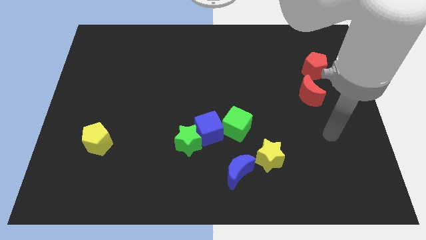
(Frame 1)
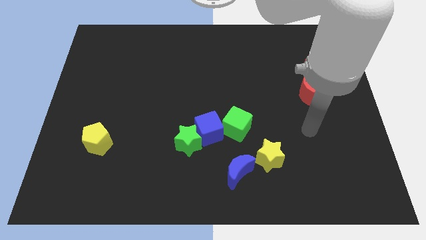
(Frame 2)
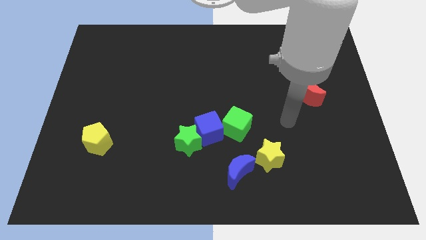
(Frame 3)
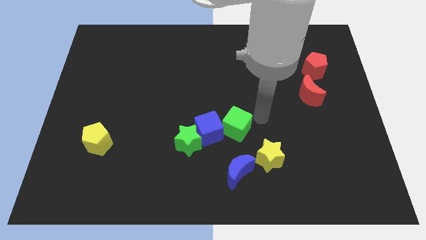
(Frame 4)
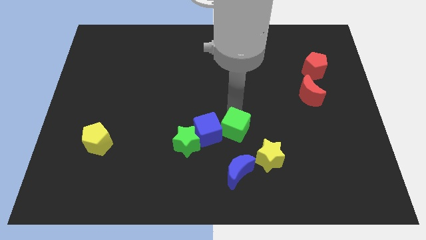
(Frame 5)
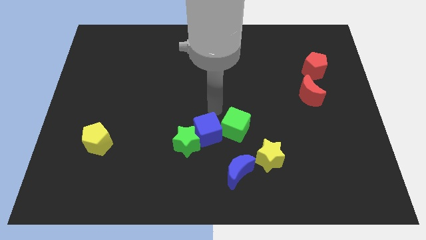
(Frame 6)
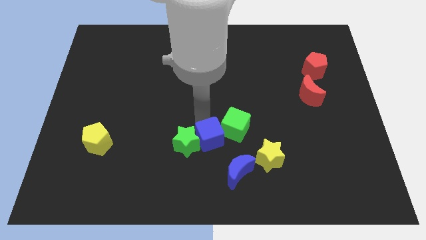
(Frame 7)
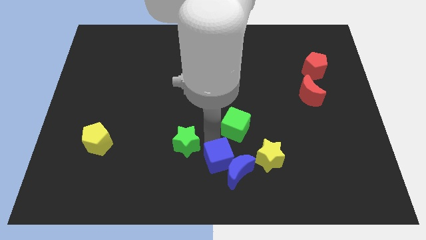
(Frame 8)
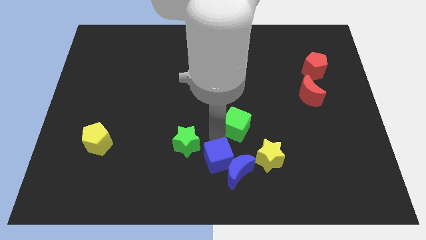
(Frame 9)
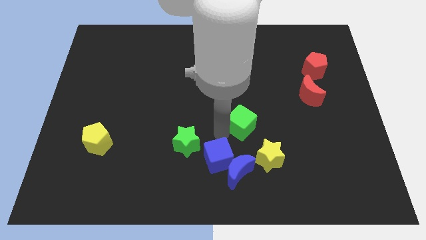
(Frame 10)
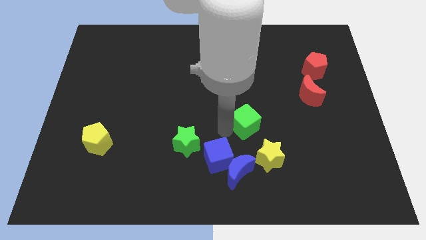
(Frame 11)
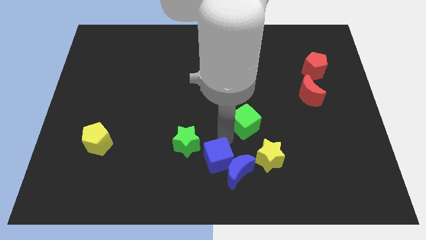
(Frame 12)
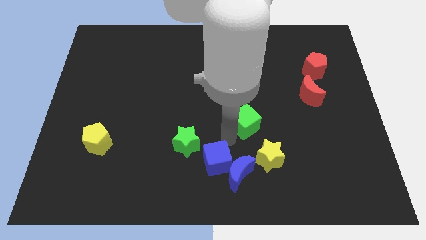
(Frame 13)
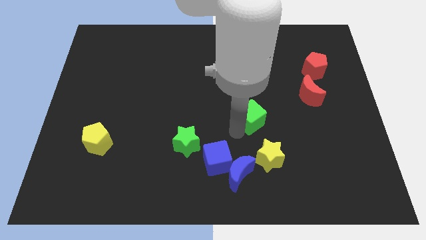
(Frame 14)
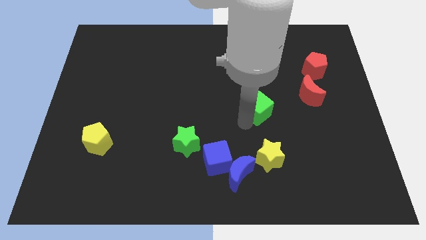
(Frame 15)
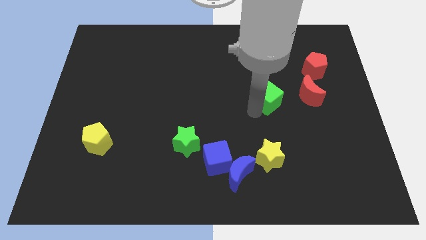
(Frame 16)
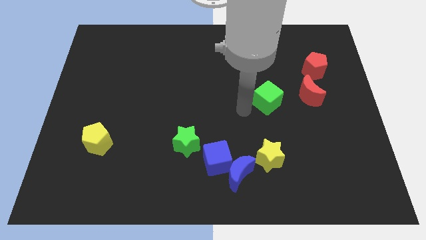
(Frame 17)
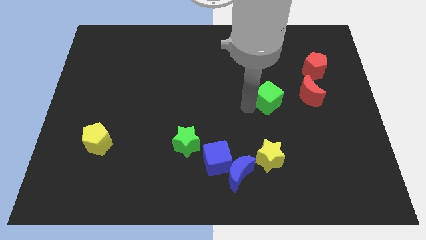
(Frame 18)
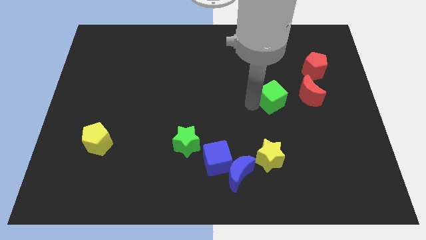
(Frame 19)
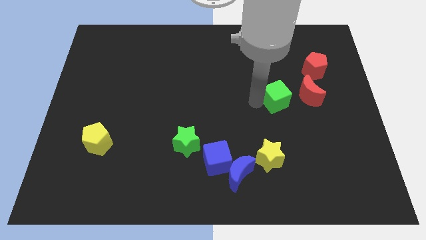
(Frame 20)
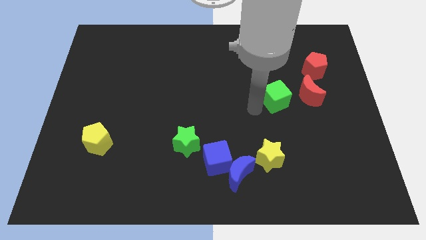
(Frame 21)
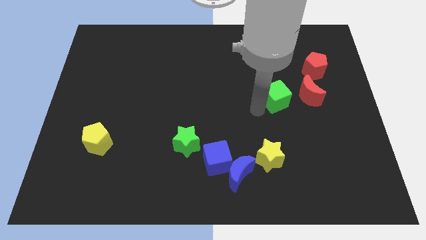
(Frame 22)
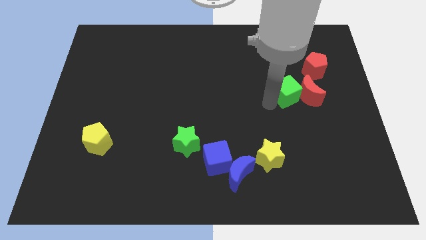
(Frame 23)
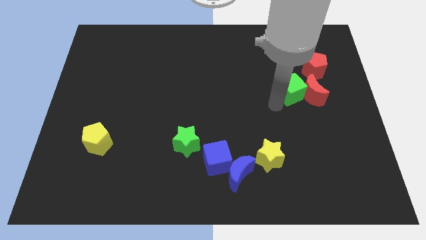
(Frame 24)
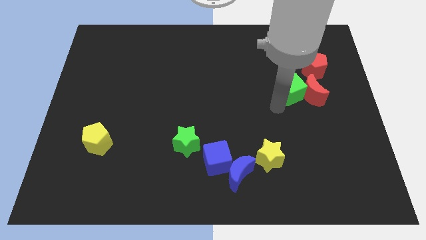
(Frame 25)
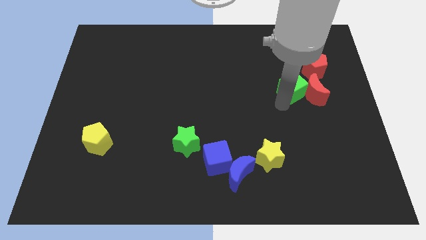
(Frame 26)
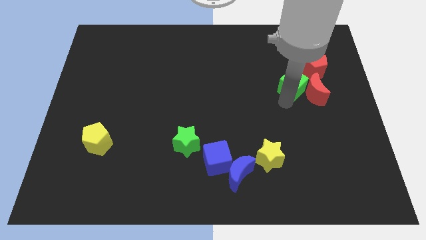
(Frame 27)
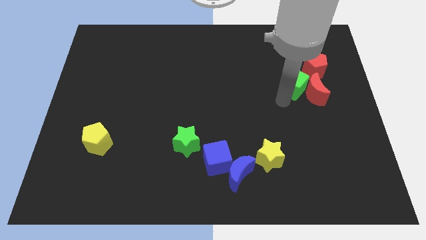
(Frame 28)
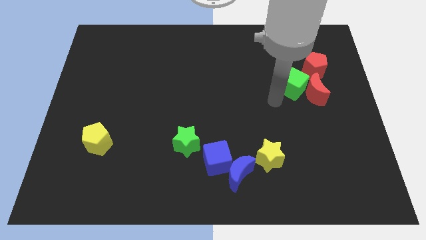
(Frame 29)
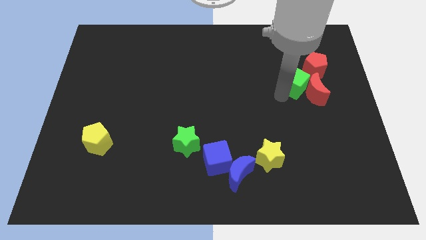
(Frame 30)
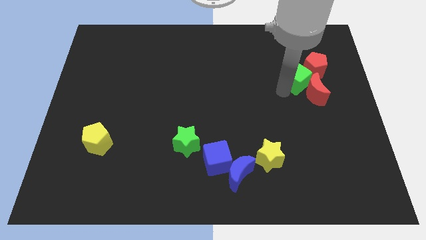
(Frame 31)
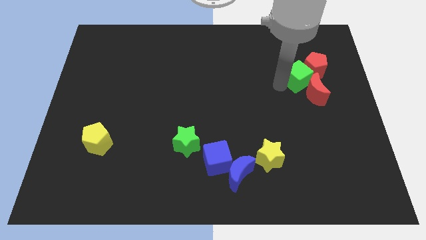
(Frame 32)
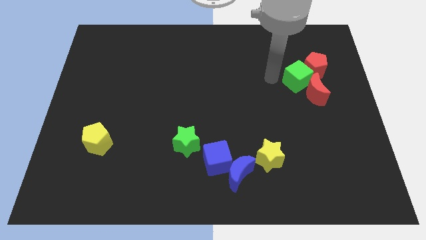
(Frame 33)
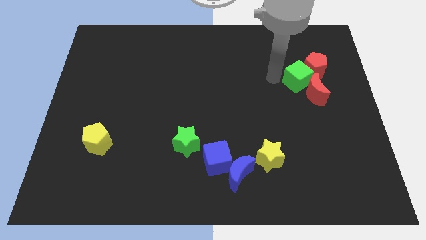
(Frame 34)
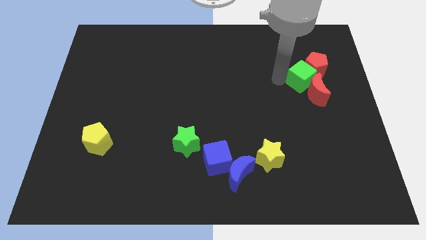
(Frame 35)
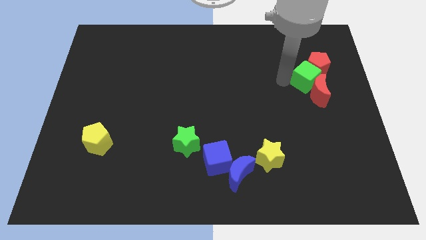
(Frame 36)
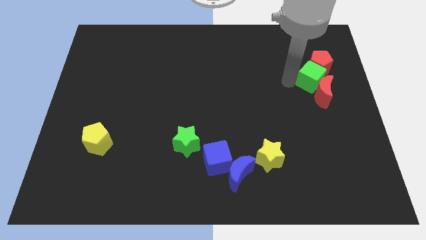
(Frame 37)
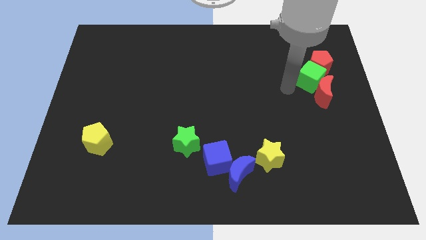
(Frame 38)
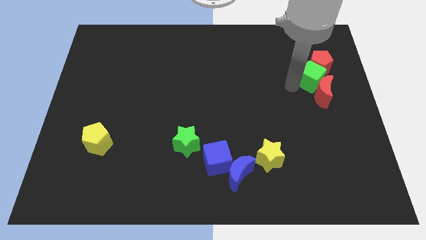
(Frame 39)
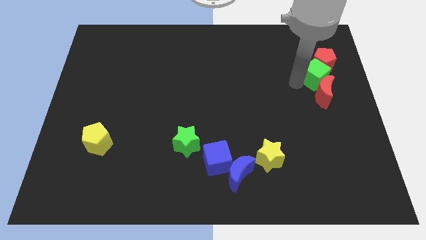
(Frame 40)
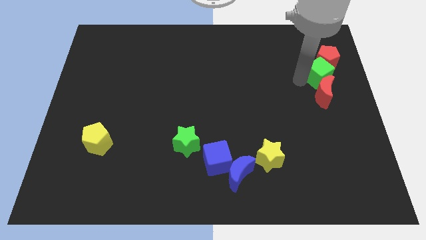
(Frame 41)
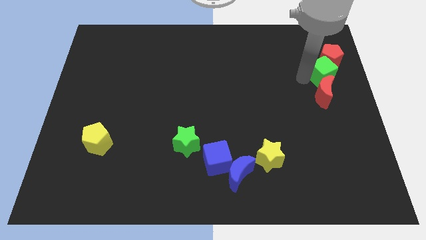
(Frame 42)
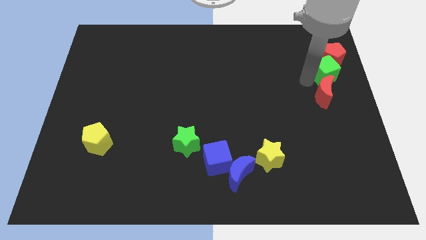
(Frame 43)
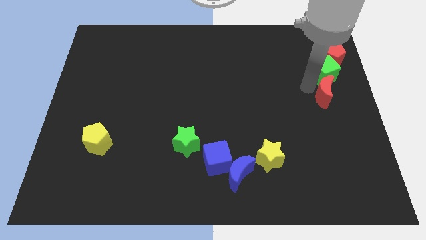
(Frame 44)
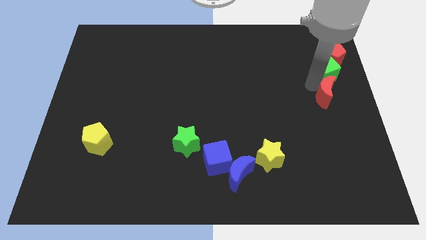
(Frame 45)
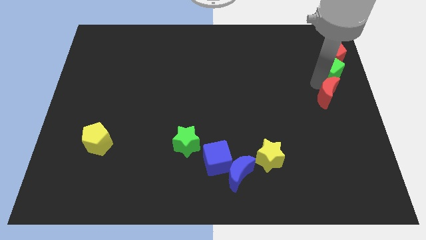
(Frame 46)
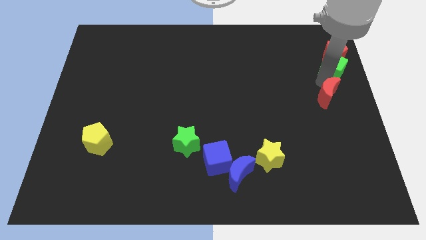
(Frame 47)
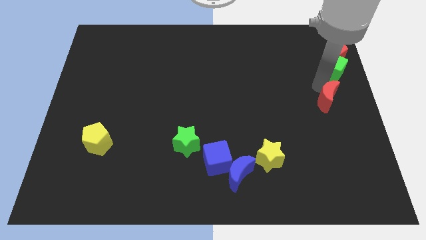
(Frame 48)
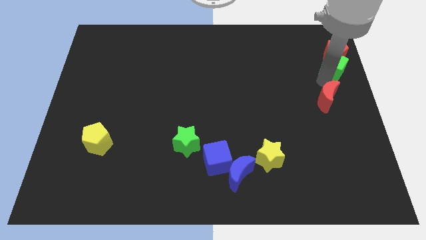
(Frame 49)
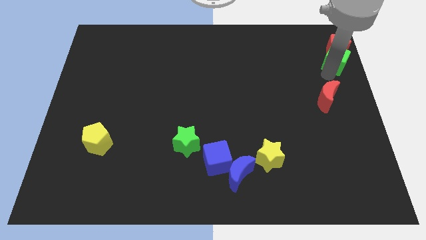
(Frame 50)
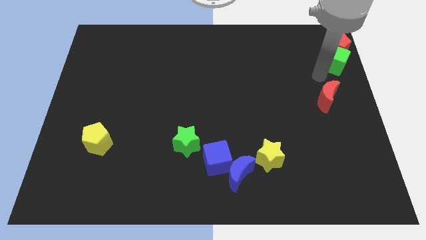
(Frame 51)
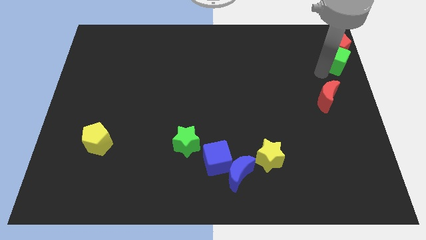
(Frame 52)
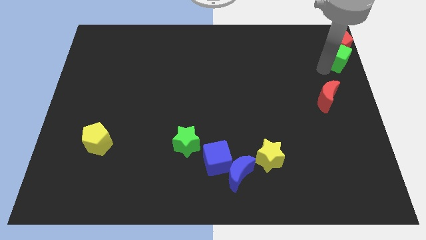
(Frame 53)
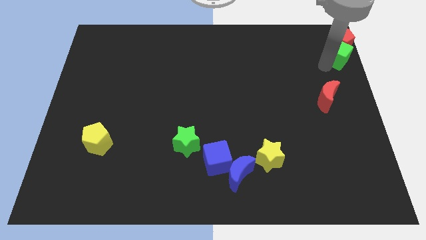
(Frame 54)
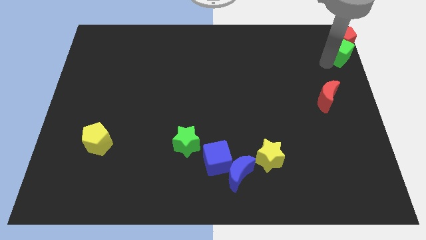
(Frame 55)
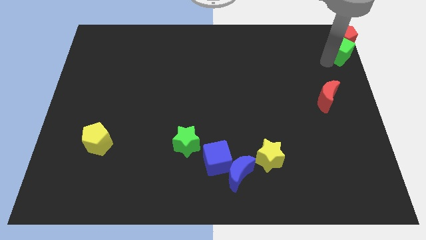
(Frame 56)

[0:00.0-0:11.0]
put the green cube to the top right corner

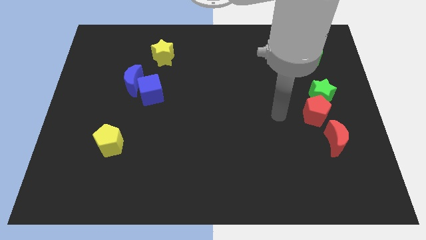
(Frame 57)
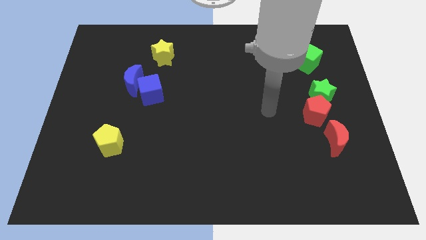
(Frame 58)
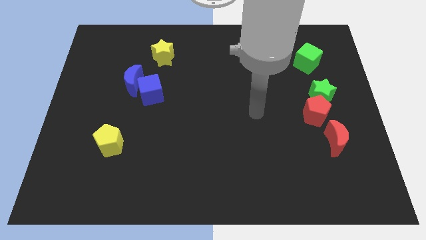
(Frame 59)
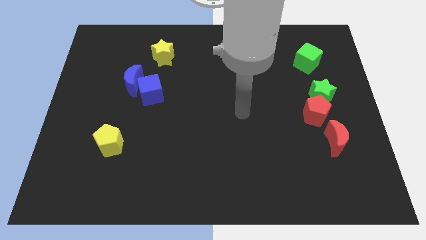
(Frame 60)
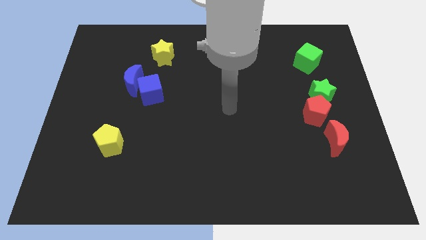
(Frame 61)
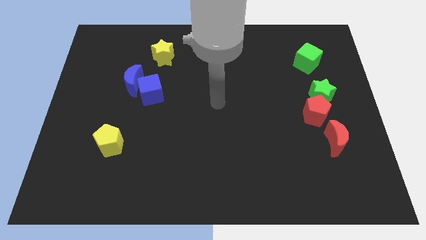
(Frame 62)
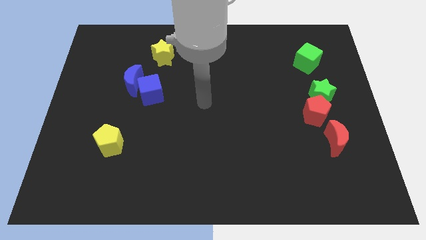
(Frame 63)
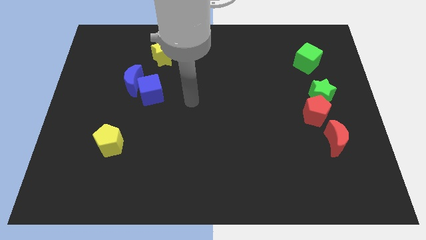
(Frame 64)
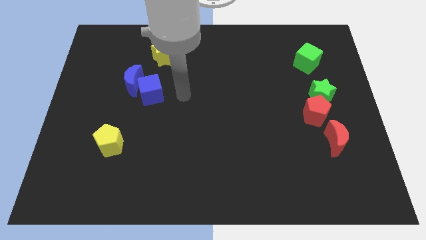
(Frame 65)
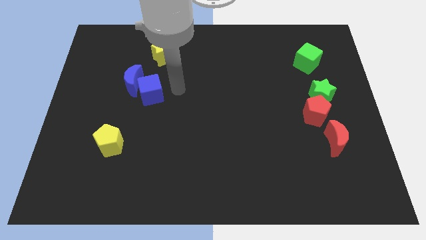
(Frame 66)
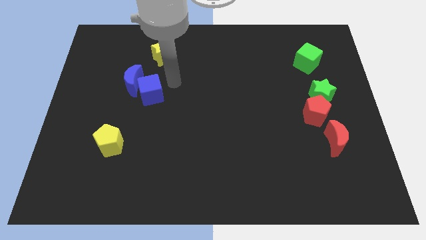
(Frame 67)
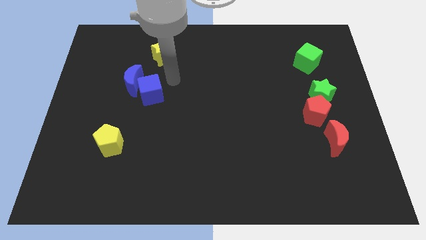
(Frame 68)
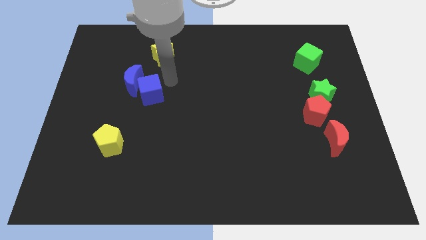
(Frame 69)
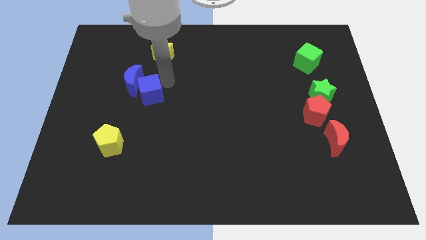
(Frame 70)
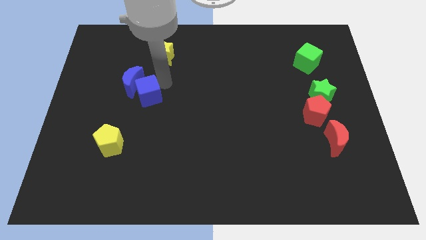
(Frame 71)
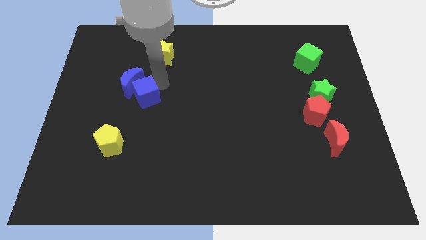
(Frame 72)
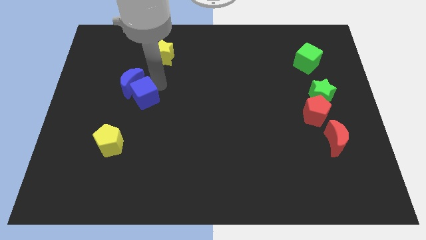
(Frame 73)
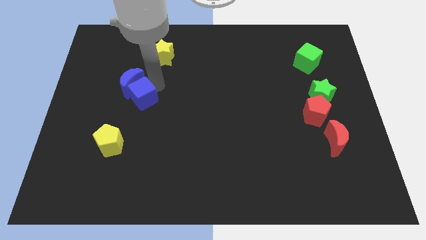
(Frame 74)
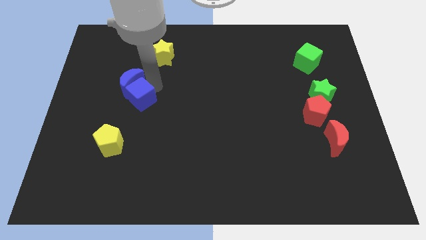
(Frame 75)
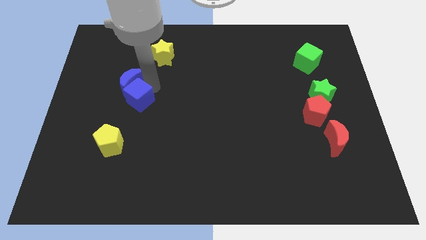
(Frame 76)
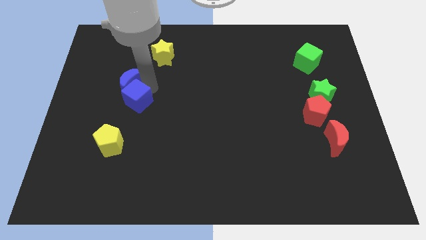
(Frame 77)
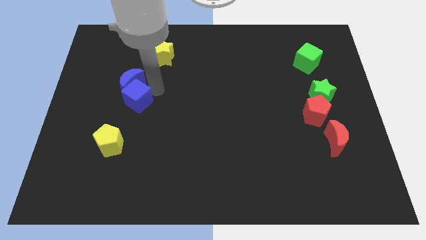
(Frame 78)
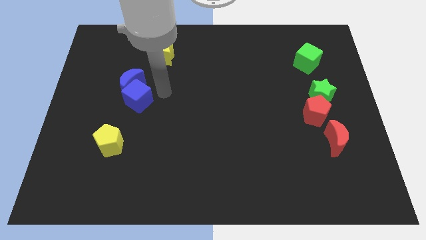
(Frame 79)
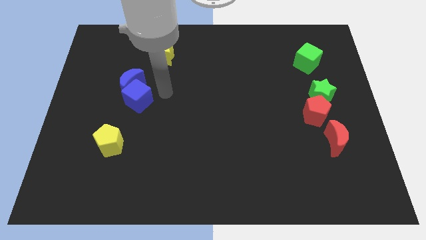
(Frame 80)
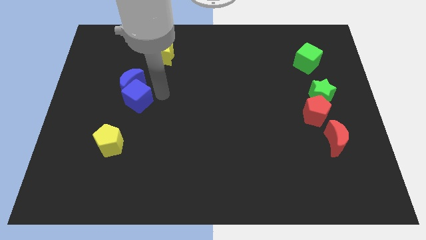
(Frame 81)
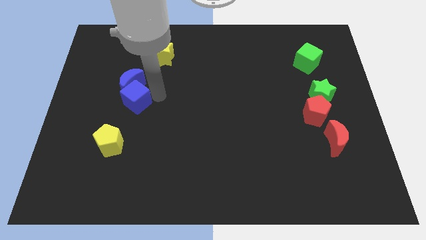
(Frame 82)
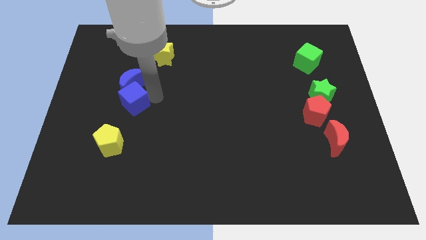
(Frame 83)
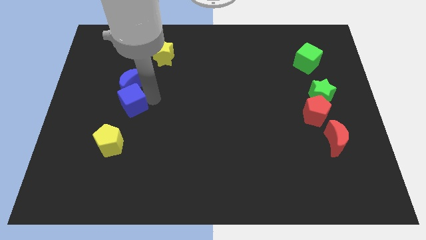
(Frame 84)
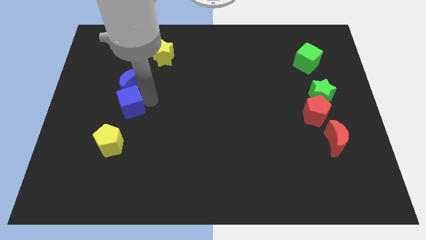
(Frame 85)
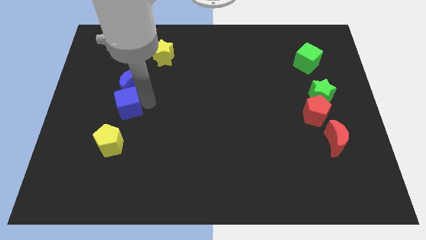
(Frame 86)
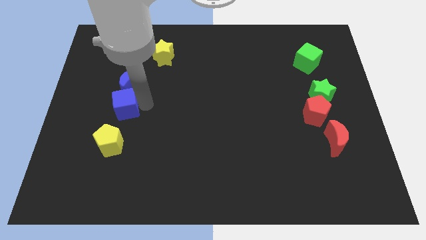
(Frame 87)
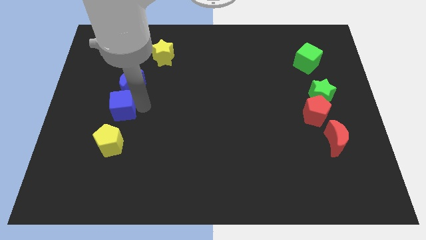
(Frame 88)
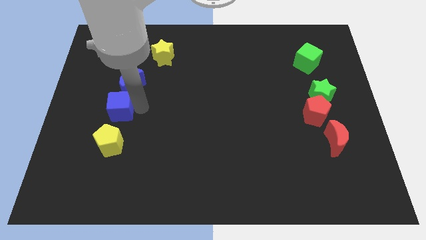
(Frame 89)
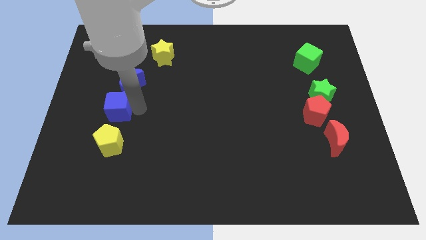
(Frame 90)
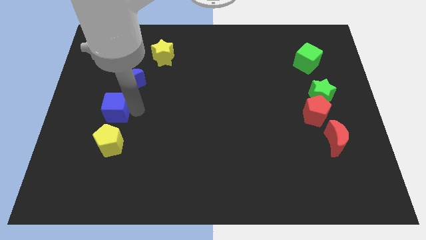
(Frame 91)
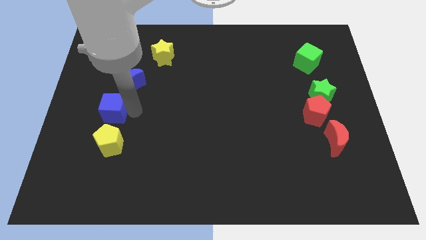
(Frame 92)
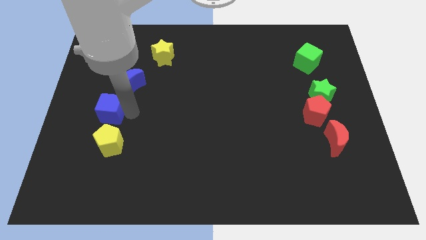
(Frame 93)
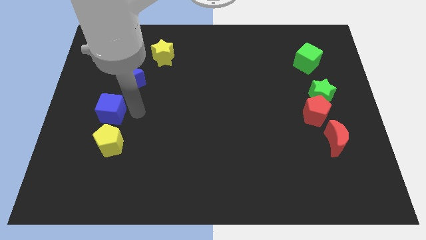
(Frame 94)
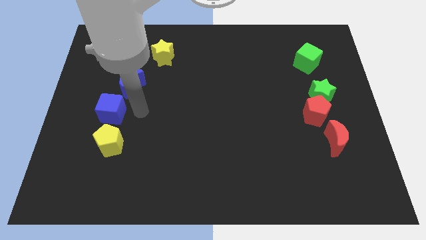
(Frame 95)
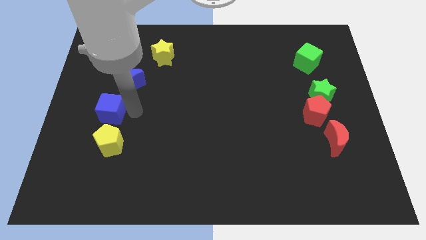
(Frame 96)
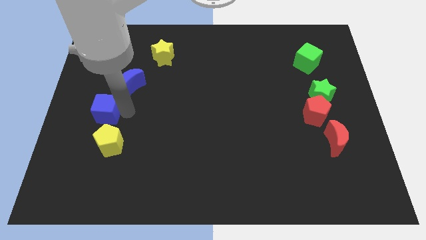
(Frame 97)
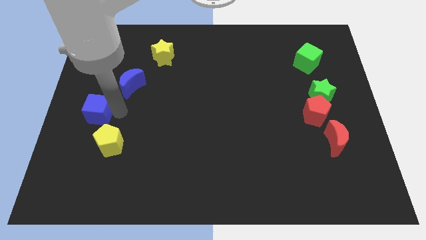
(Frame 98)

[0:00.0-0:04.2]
slide the blue cube to the left side of the board
